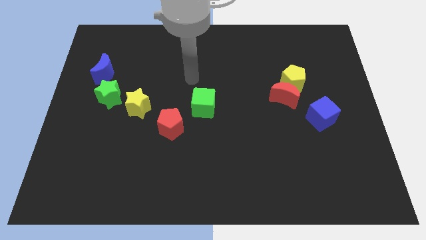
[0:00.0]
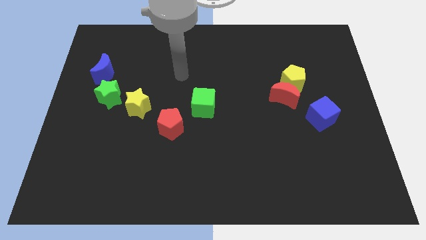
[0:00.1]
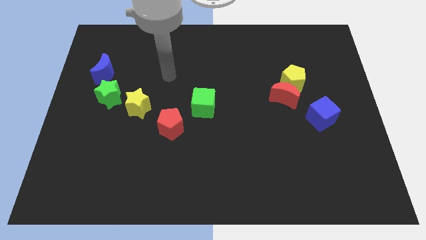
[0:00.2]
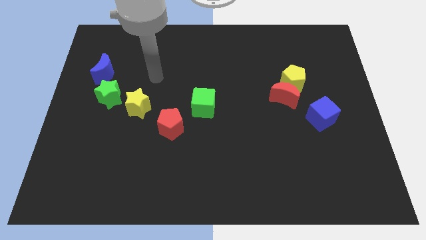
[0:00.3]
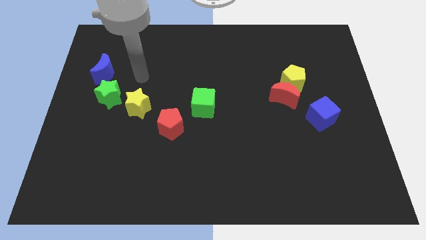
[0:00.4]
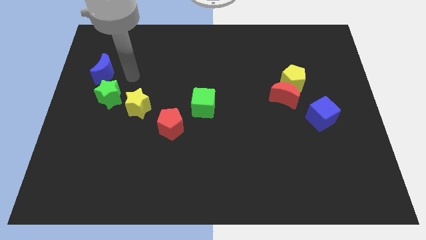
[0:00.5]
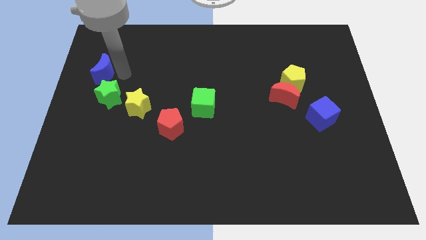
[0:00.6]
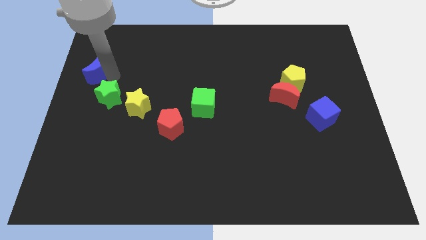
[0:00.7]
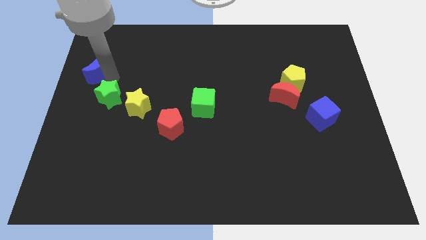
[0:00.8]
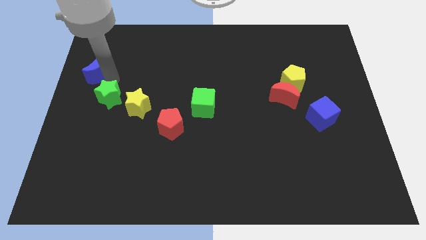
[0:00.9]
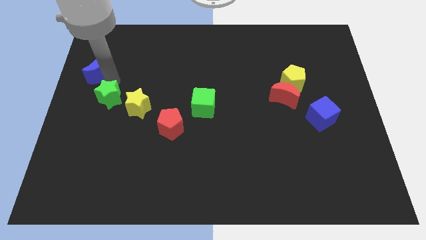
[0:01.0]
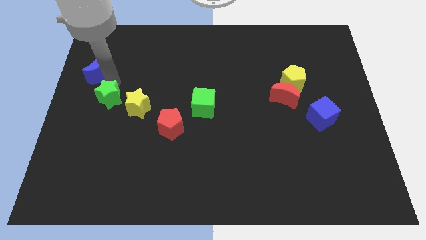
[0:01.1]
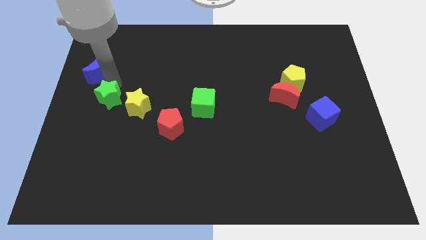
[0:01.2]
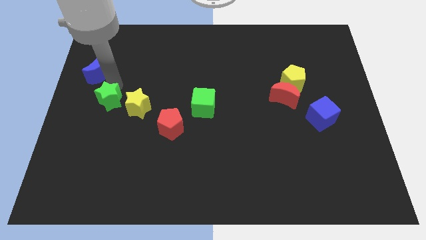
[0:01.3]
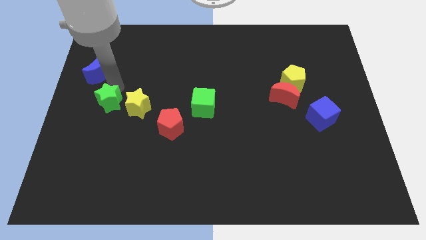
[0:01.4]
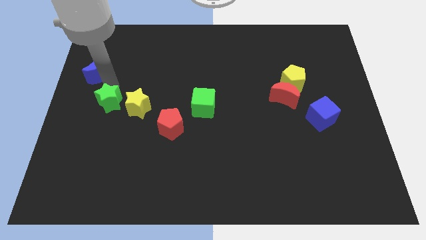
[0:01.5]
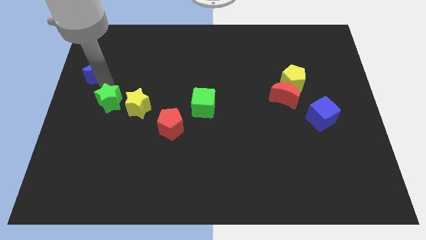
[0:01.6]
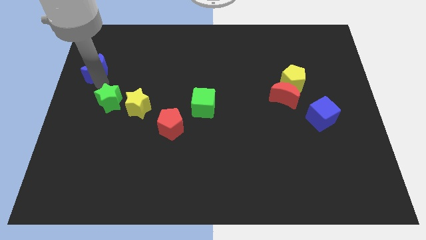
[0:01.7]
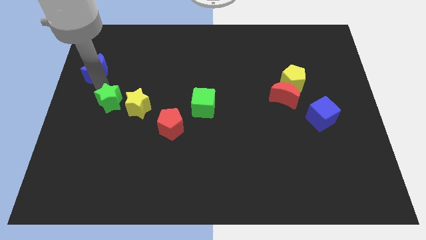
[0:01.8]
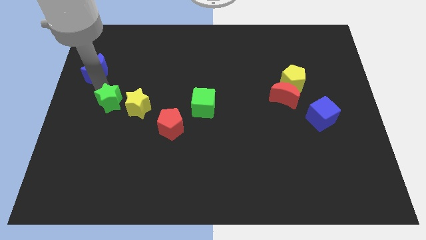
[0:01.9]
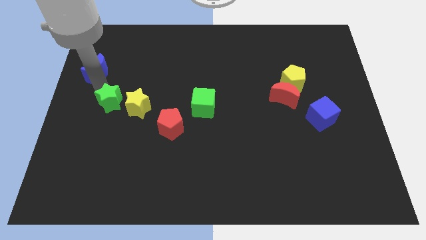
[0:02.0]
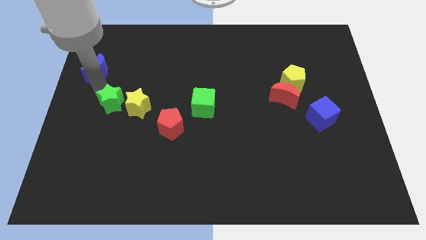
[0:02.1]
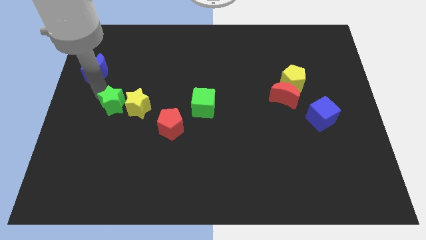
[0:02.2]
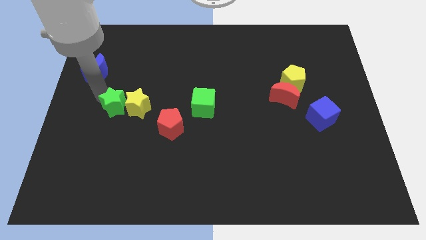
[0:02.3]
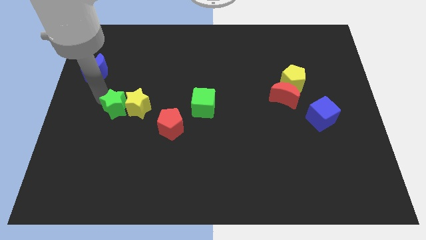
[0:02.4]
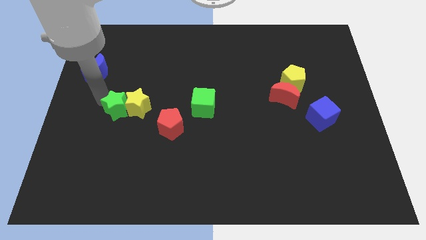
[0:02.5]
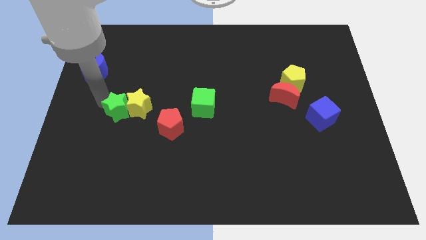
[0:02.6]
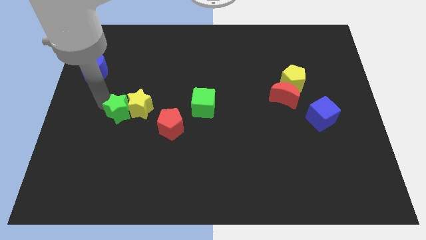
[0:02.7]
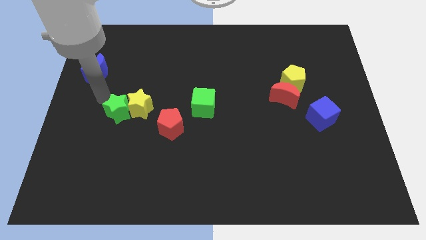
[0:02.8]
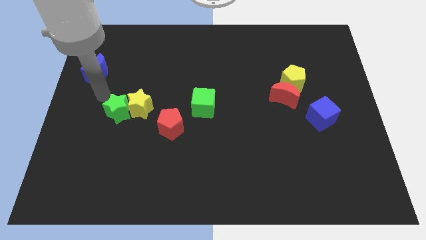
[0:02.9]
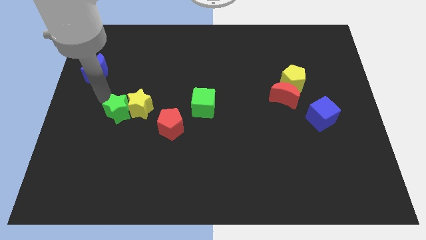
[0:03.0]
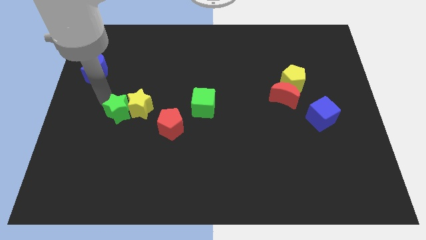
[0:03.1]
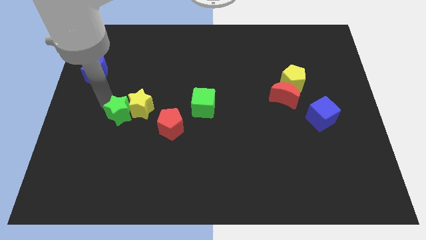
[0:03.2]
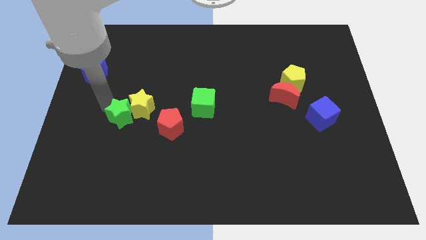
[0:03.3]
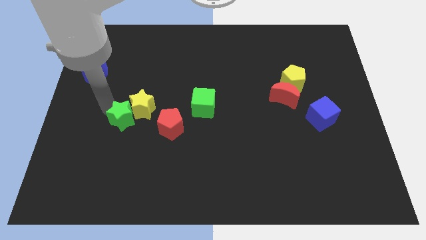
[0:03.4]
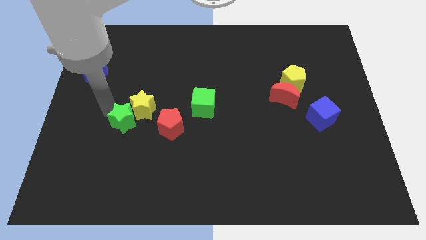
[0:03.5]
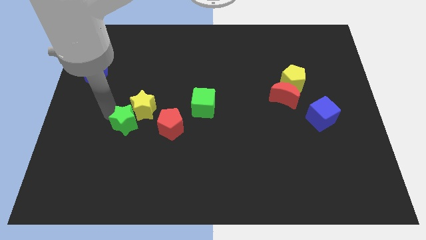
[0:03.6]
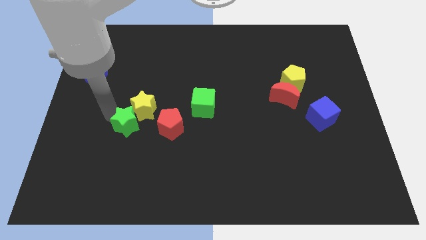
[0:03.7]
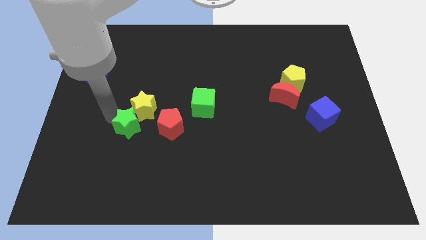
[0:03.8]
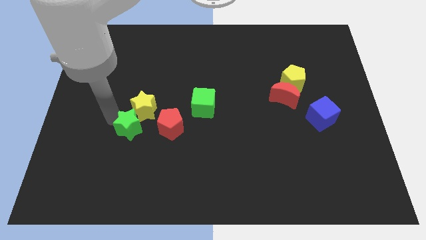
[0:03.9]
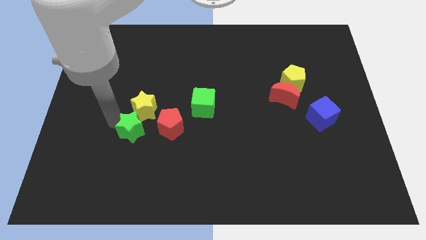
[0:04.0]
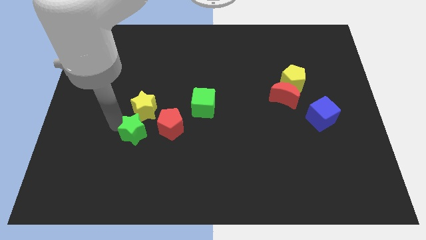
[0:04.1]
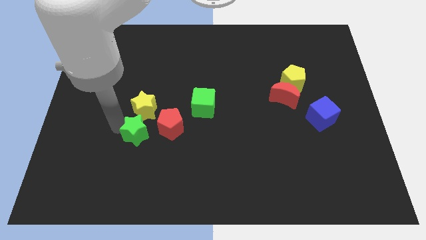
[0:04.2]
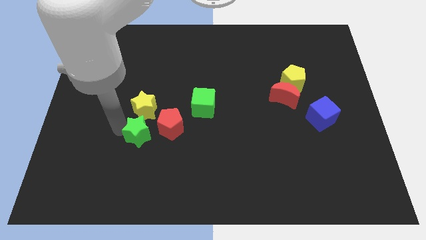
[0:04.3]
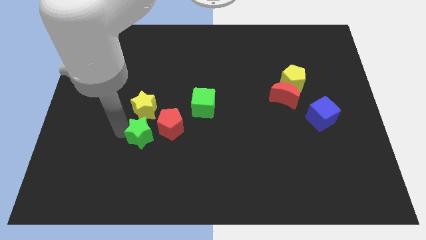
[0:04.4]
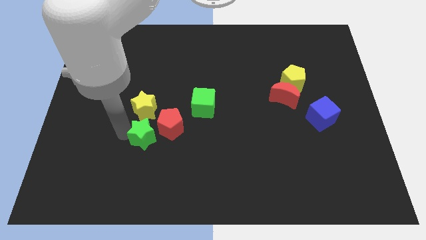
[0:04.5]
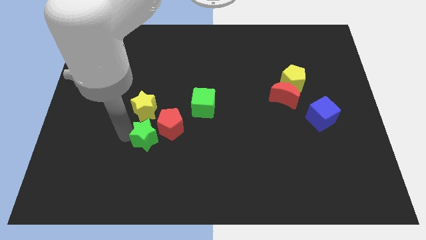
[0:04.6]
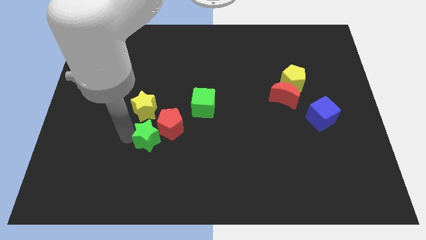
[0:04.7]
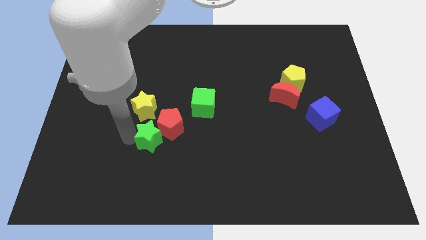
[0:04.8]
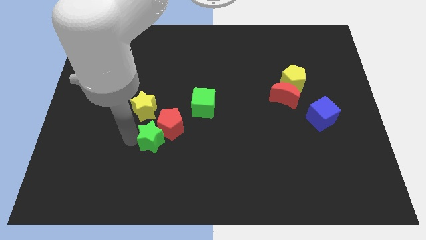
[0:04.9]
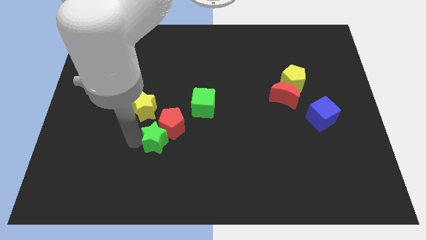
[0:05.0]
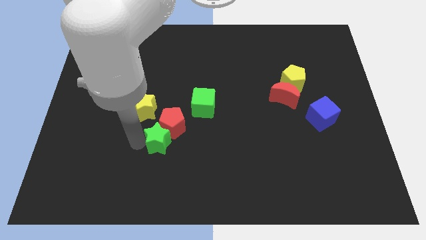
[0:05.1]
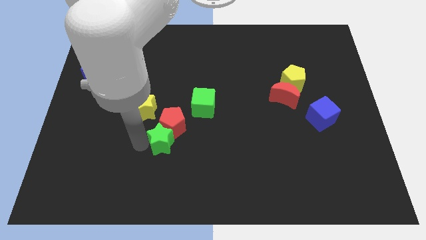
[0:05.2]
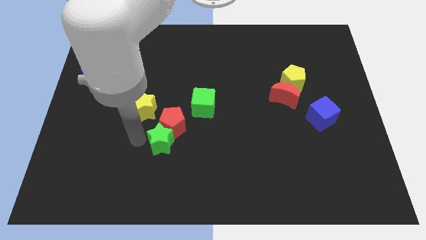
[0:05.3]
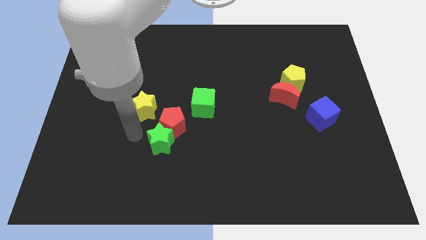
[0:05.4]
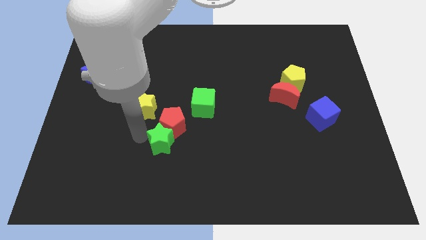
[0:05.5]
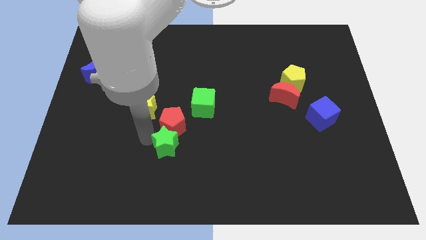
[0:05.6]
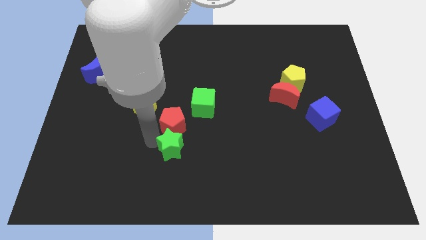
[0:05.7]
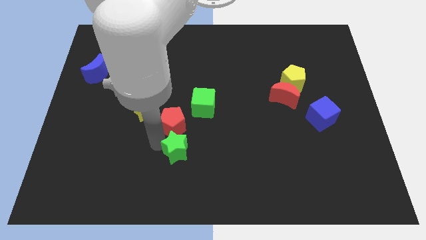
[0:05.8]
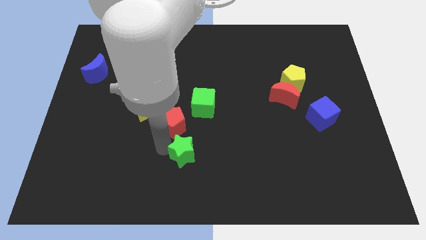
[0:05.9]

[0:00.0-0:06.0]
push the green star to the bottom side of the green cube

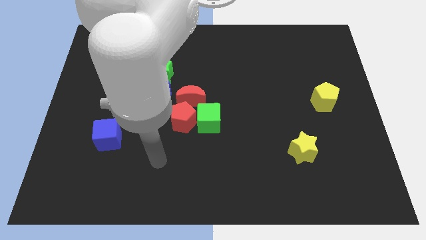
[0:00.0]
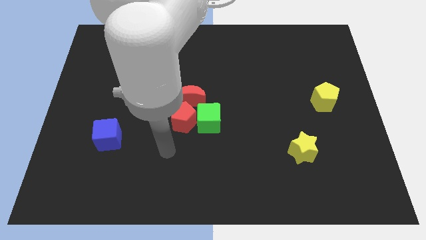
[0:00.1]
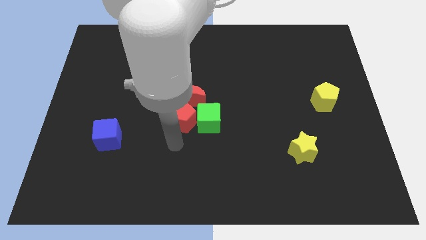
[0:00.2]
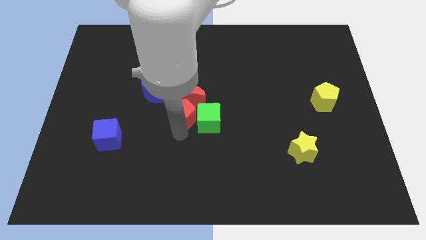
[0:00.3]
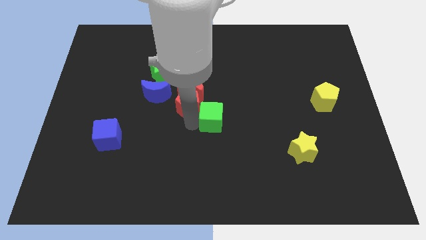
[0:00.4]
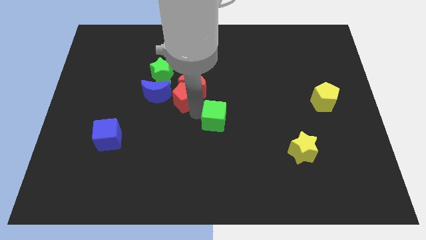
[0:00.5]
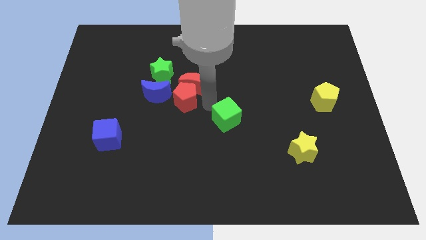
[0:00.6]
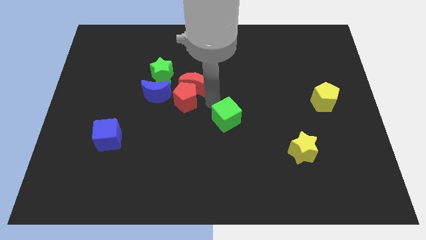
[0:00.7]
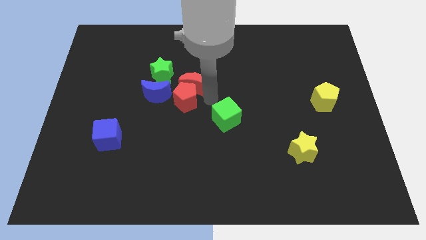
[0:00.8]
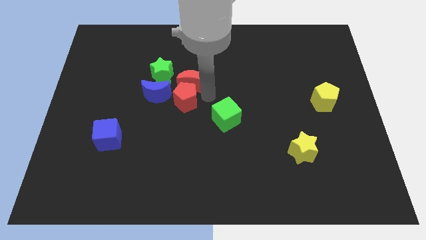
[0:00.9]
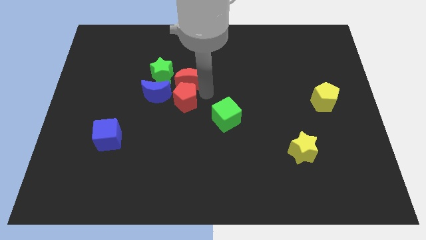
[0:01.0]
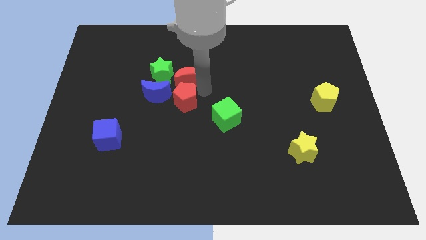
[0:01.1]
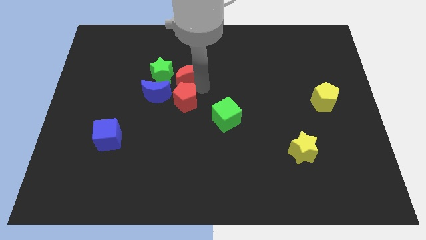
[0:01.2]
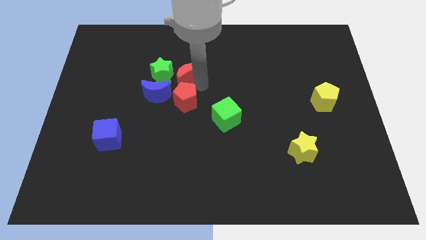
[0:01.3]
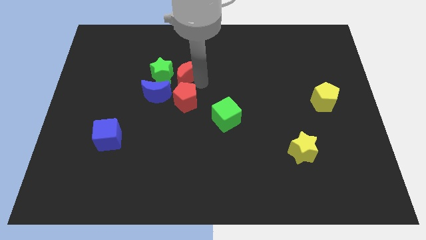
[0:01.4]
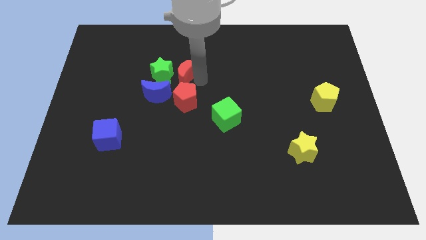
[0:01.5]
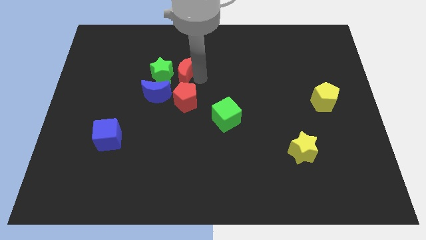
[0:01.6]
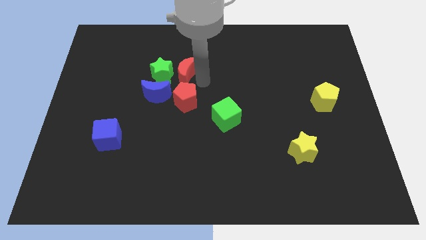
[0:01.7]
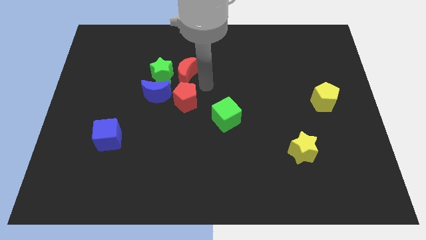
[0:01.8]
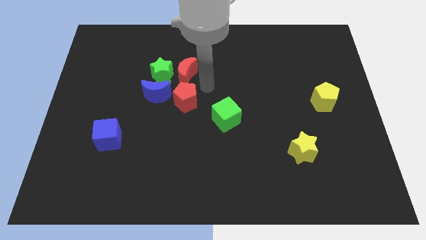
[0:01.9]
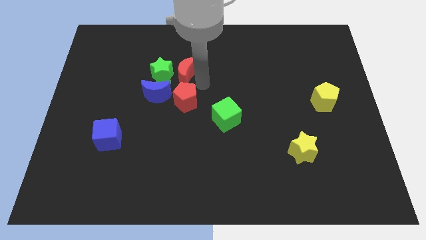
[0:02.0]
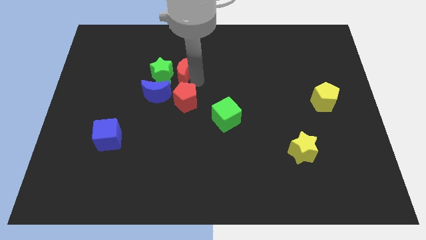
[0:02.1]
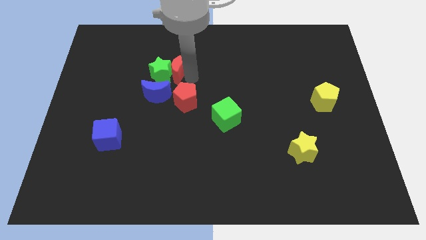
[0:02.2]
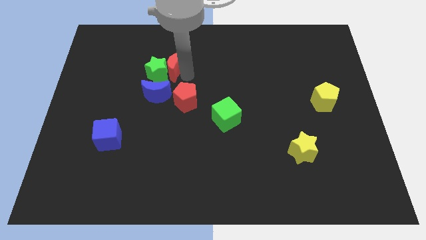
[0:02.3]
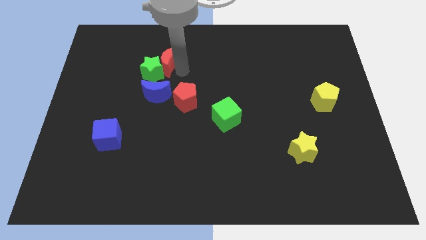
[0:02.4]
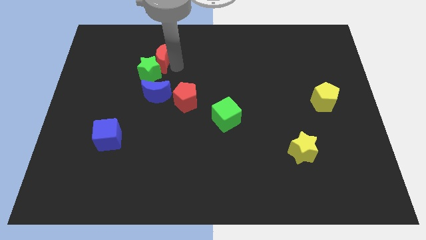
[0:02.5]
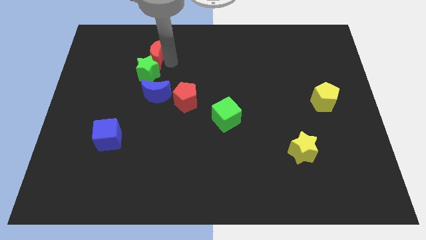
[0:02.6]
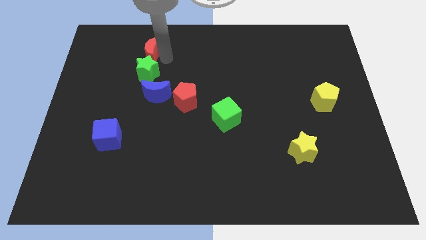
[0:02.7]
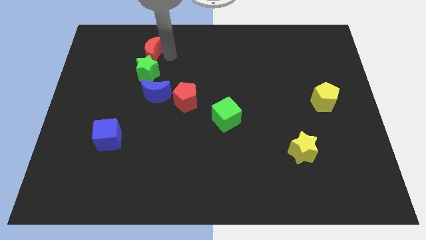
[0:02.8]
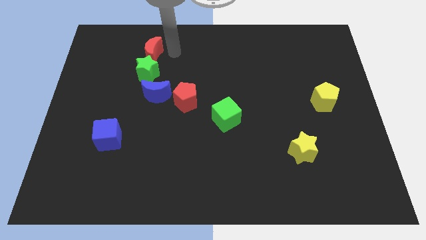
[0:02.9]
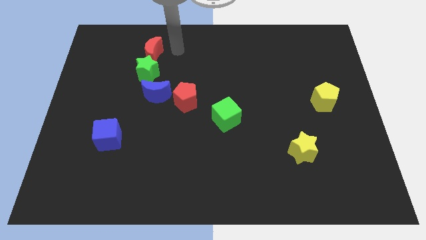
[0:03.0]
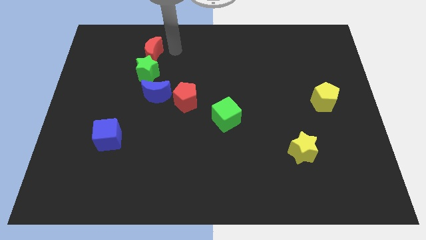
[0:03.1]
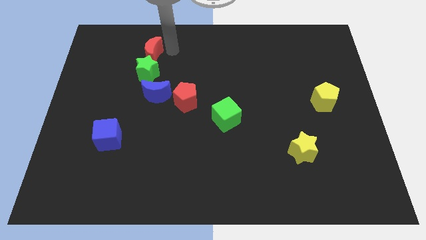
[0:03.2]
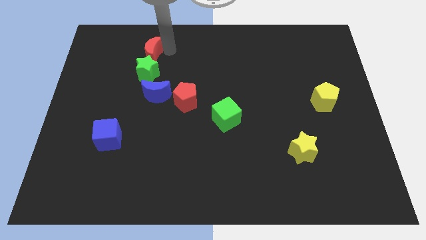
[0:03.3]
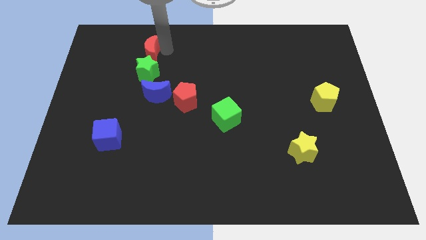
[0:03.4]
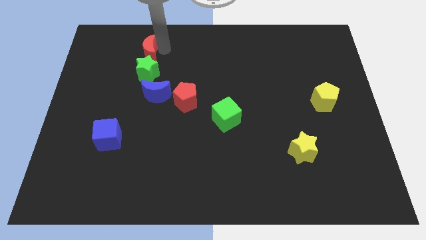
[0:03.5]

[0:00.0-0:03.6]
slide the red moon diagonally up and to the left of the green star
